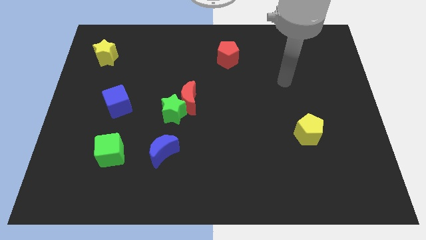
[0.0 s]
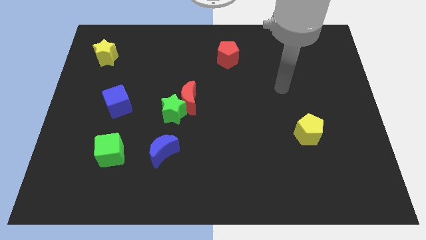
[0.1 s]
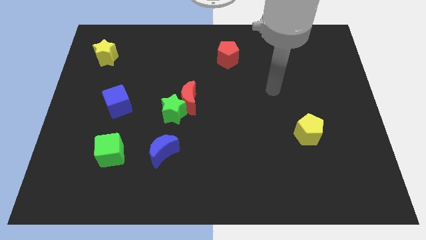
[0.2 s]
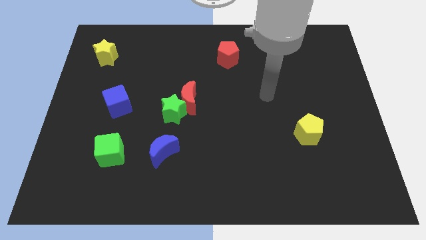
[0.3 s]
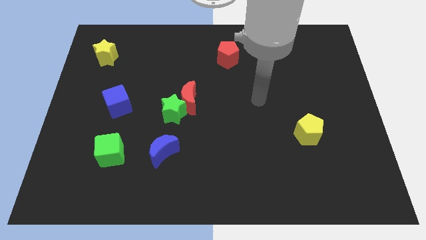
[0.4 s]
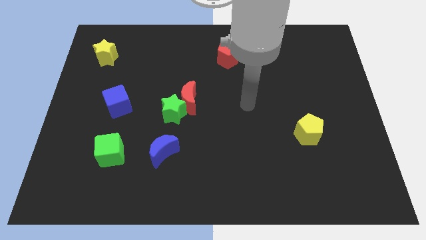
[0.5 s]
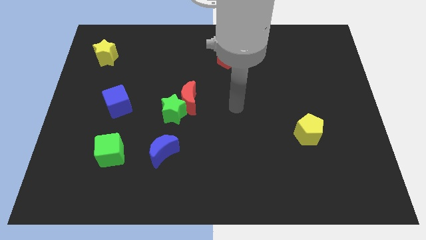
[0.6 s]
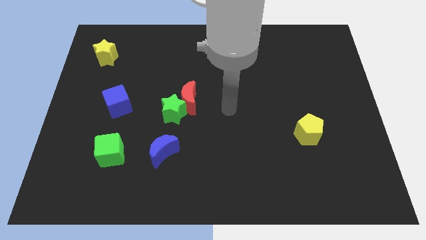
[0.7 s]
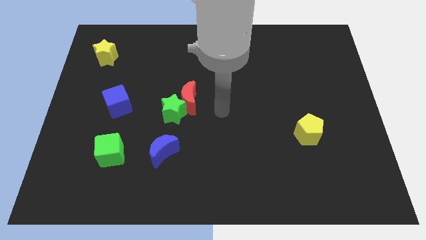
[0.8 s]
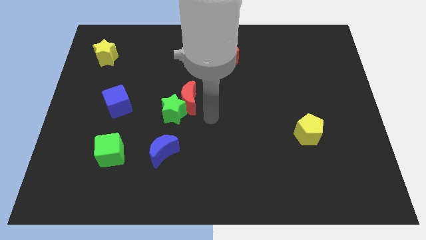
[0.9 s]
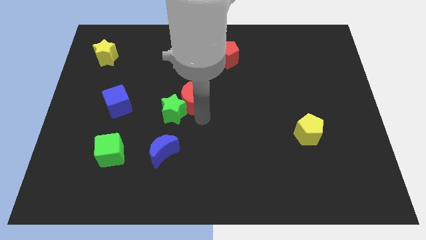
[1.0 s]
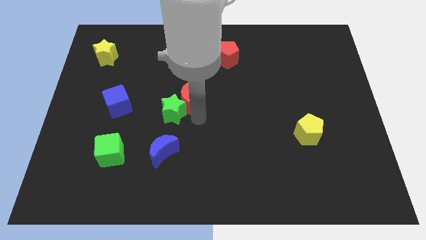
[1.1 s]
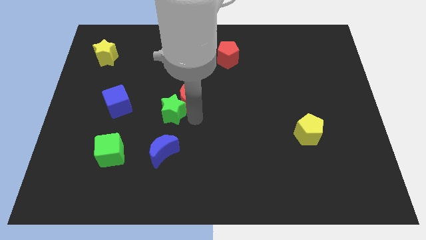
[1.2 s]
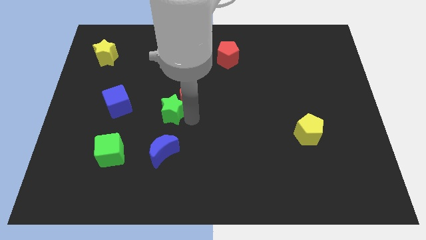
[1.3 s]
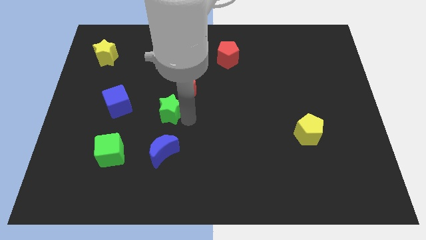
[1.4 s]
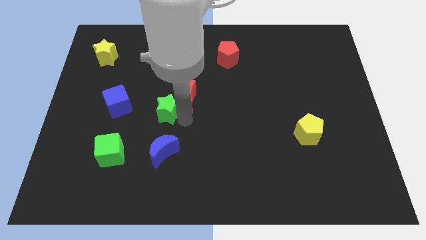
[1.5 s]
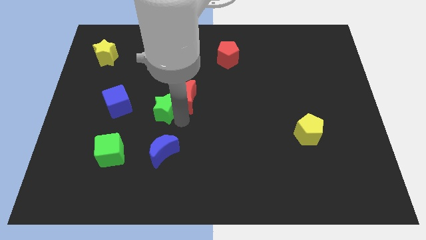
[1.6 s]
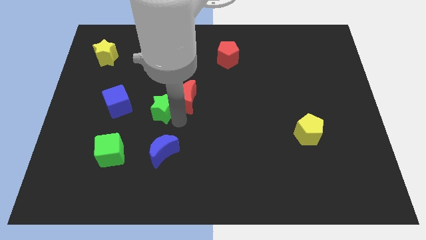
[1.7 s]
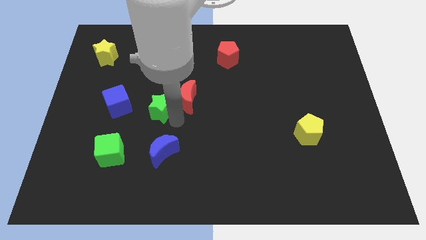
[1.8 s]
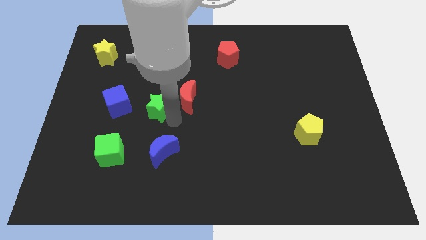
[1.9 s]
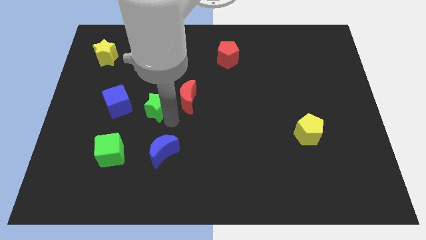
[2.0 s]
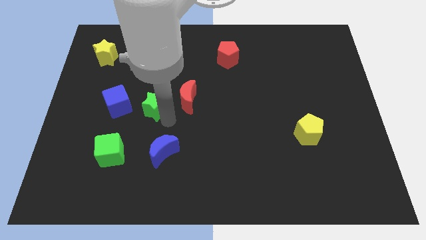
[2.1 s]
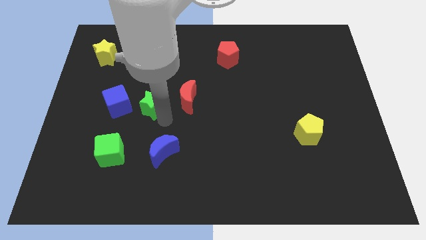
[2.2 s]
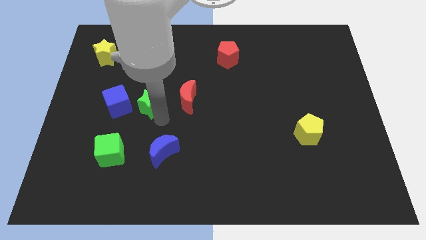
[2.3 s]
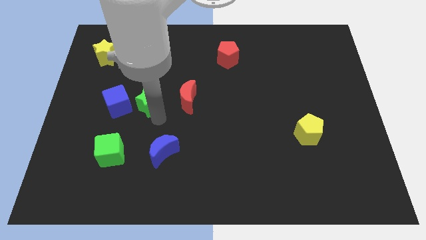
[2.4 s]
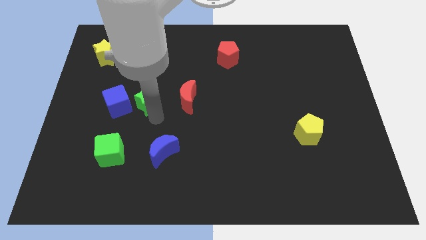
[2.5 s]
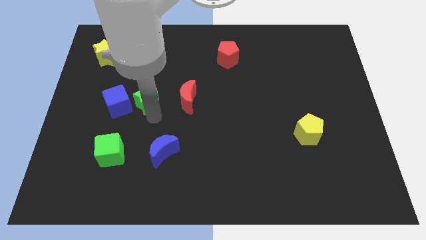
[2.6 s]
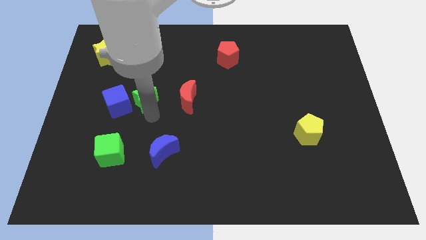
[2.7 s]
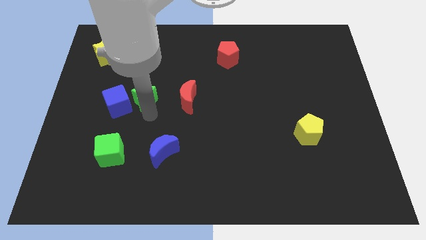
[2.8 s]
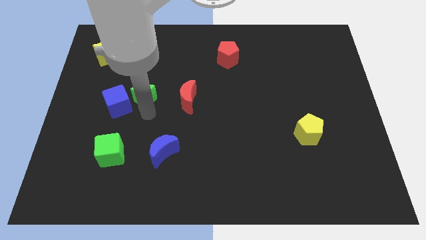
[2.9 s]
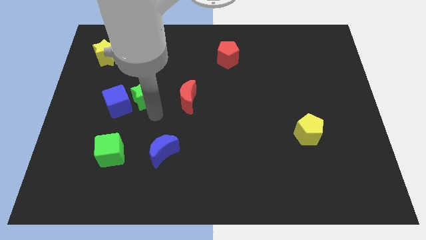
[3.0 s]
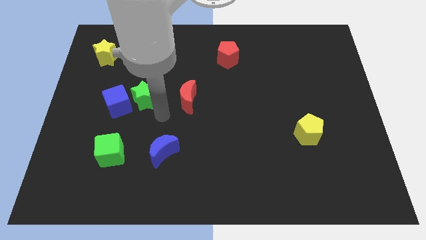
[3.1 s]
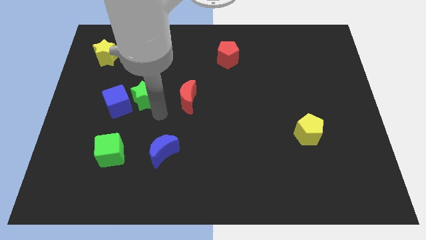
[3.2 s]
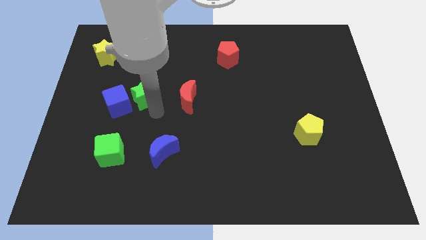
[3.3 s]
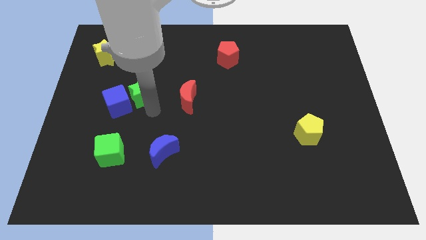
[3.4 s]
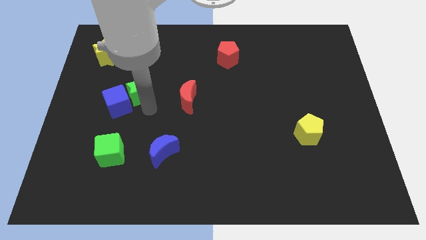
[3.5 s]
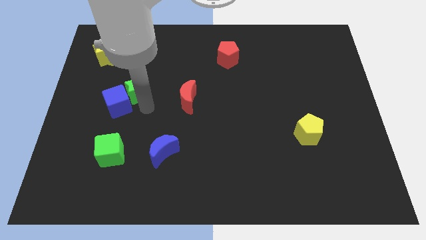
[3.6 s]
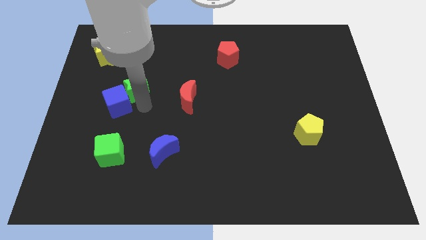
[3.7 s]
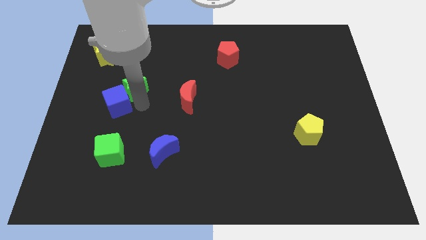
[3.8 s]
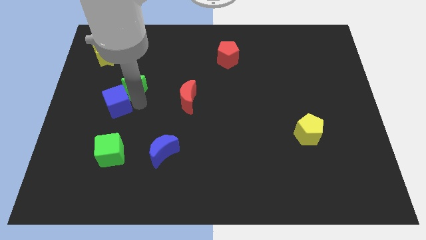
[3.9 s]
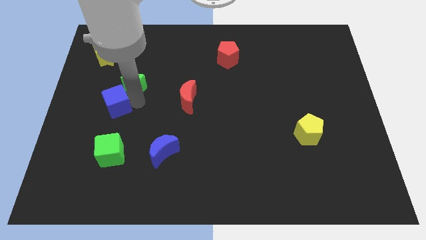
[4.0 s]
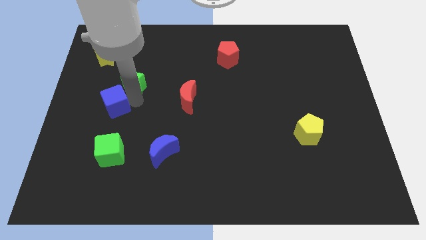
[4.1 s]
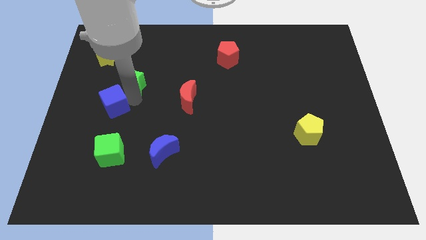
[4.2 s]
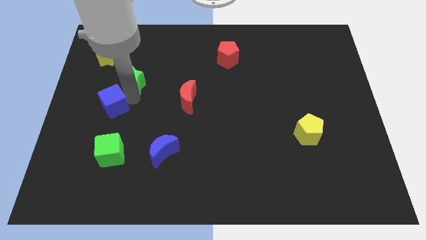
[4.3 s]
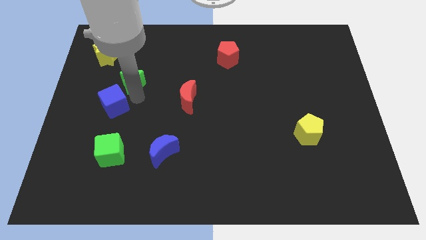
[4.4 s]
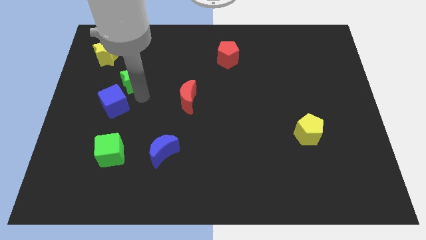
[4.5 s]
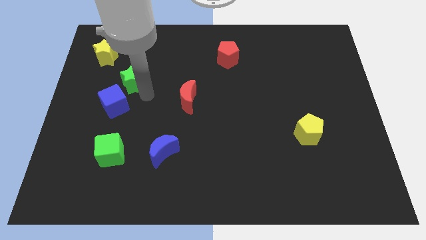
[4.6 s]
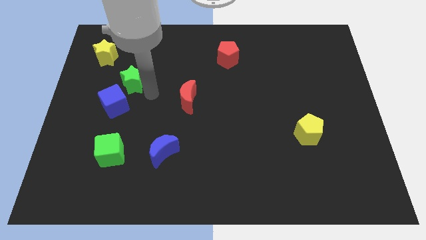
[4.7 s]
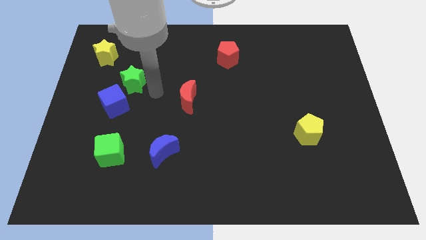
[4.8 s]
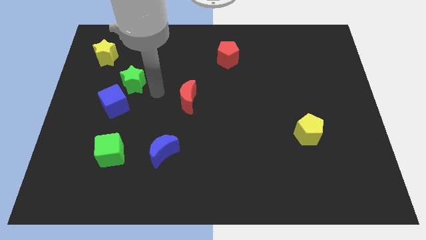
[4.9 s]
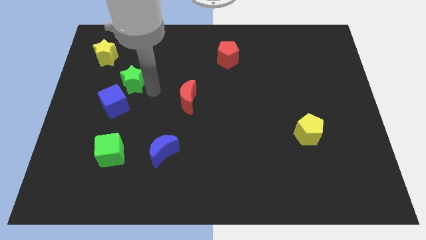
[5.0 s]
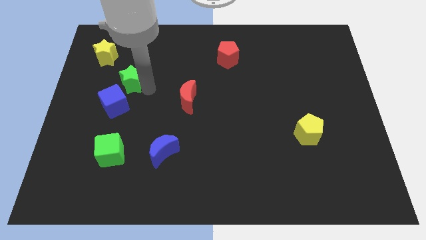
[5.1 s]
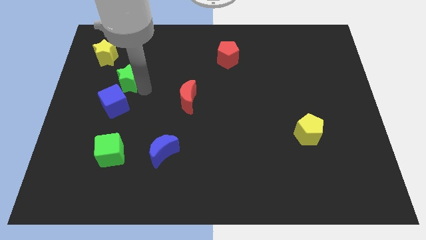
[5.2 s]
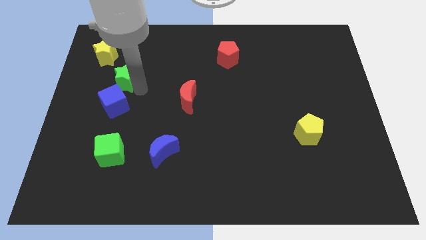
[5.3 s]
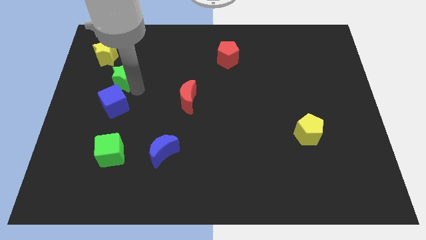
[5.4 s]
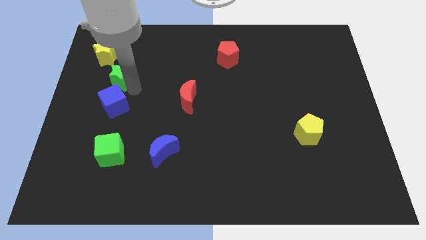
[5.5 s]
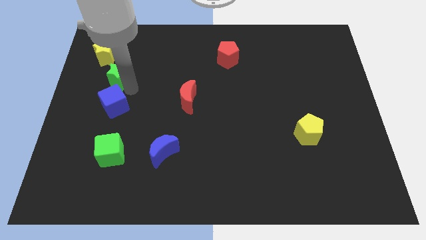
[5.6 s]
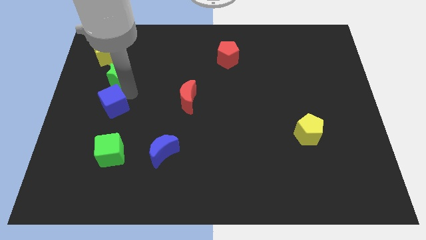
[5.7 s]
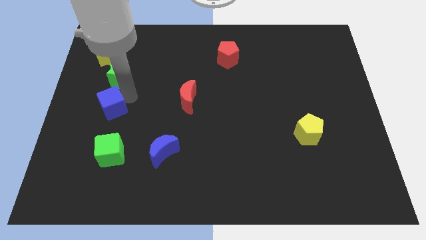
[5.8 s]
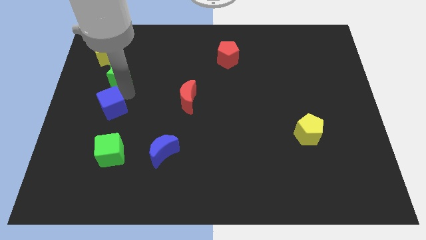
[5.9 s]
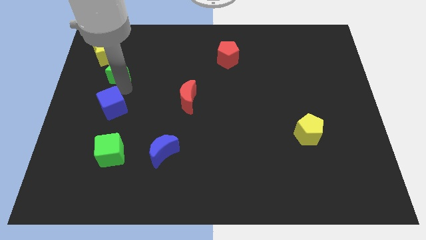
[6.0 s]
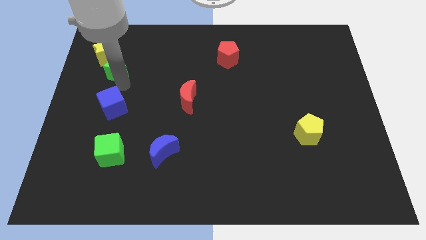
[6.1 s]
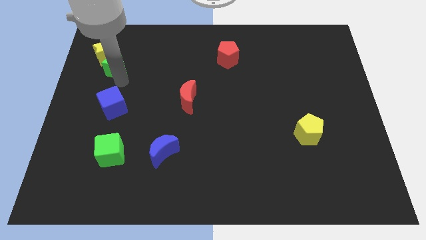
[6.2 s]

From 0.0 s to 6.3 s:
move the green star to the yellow star
